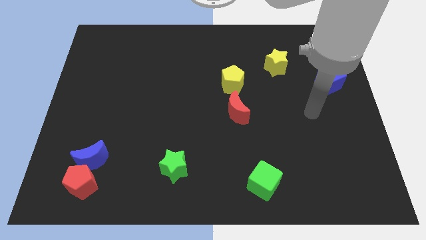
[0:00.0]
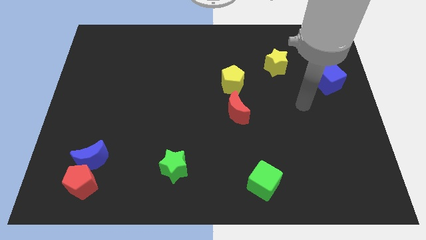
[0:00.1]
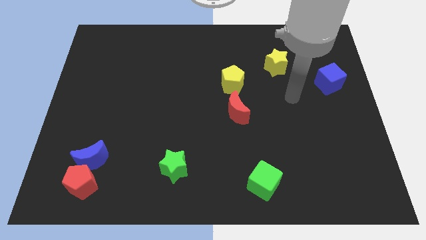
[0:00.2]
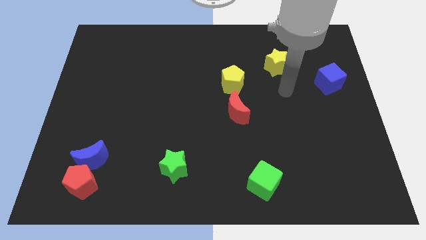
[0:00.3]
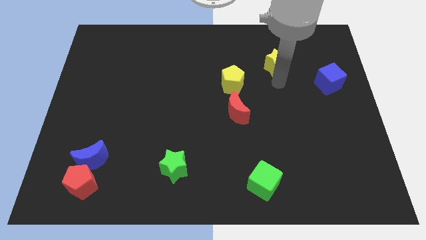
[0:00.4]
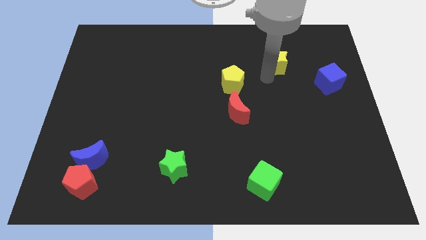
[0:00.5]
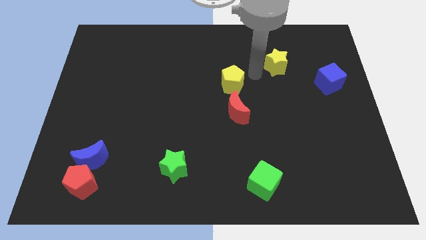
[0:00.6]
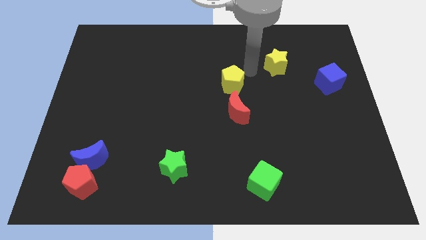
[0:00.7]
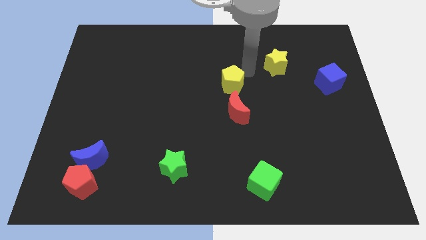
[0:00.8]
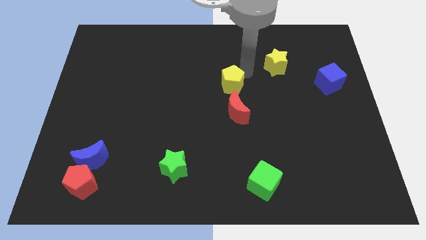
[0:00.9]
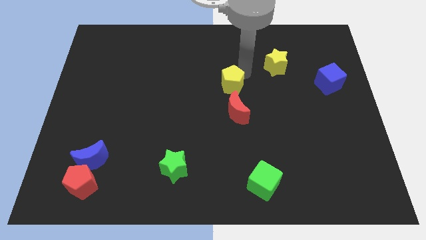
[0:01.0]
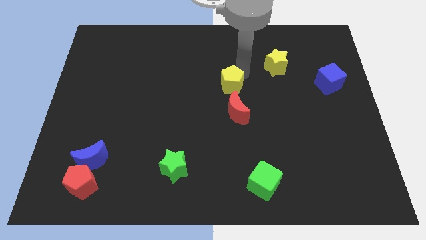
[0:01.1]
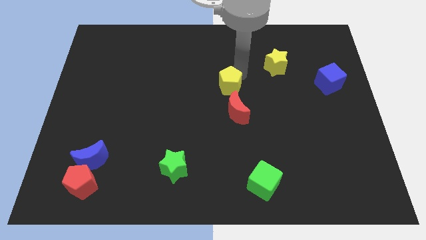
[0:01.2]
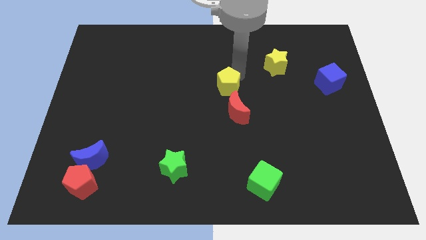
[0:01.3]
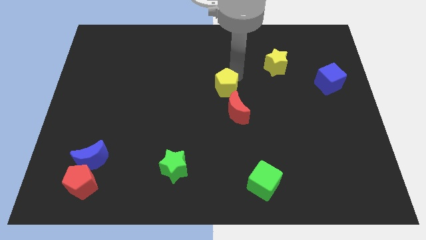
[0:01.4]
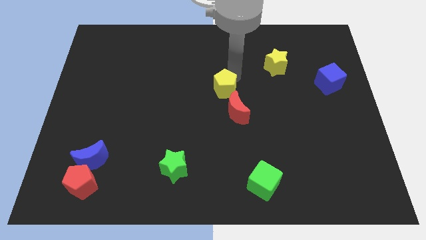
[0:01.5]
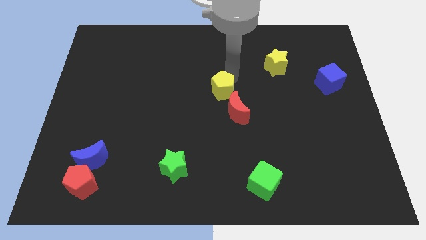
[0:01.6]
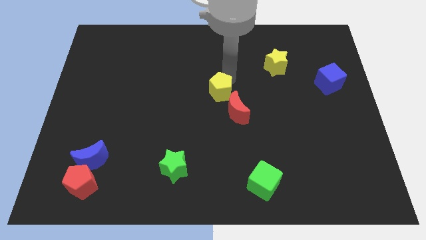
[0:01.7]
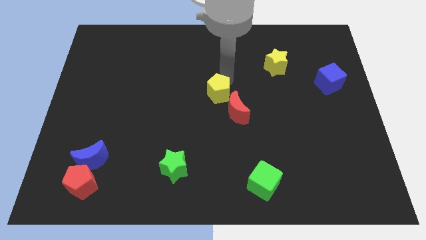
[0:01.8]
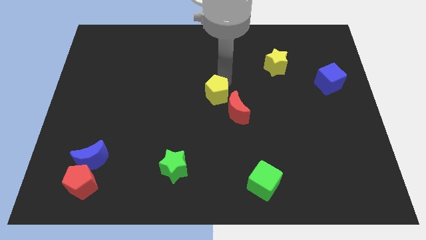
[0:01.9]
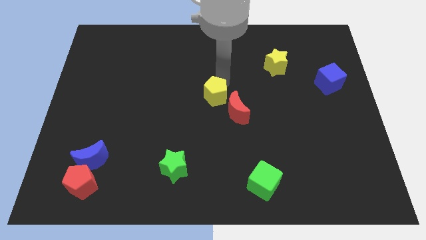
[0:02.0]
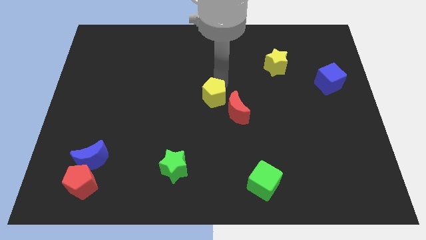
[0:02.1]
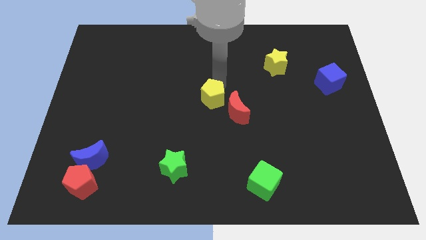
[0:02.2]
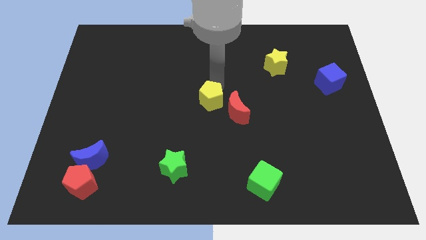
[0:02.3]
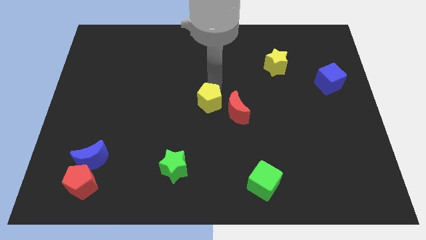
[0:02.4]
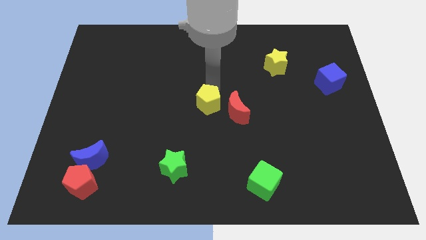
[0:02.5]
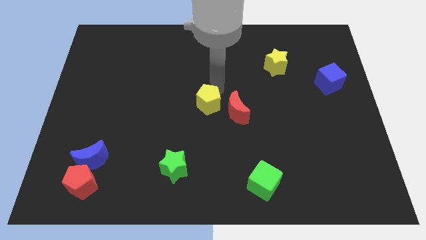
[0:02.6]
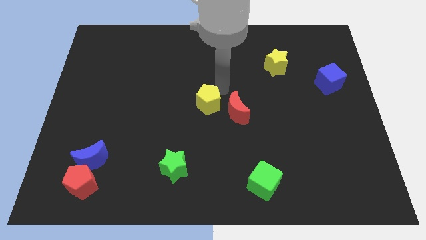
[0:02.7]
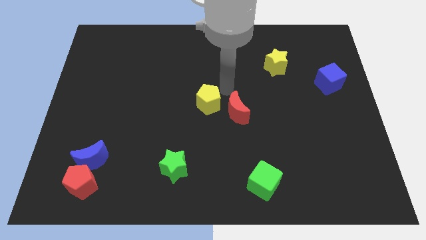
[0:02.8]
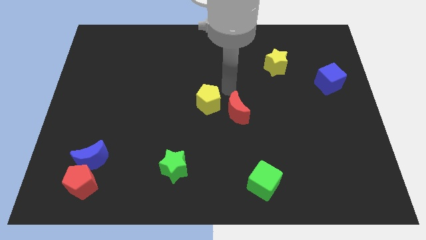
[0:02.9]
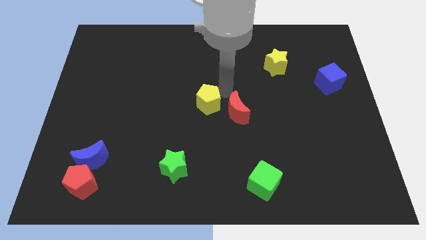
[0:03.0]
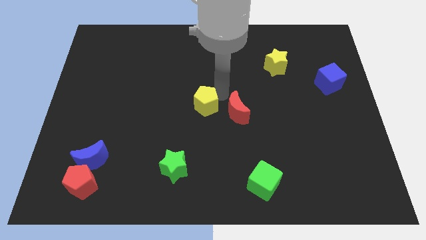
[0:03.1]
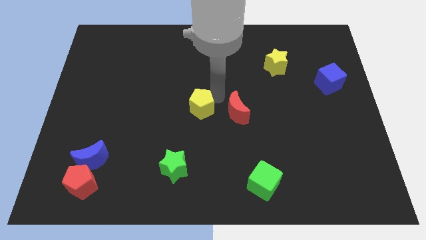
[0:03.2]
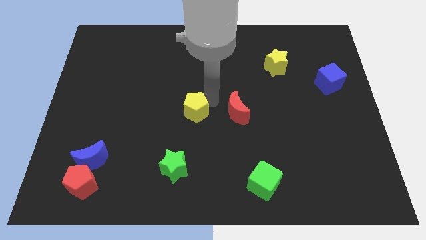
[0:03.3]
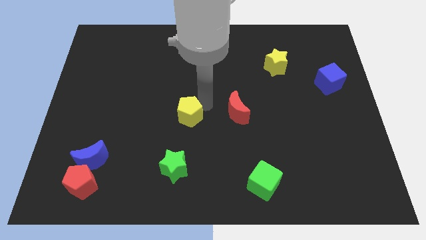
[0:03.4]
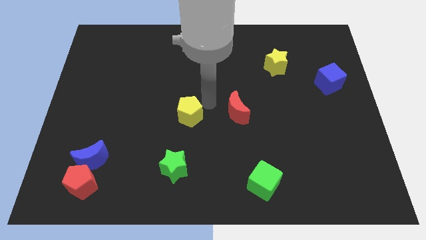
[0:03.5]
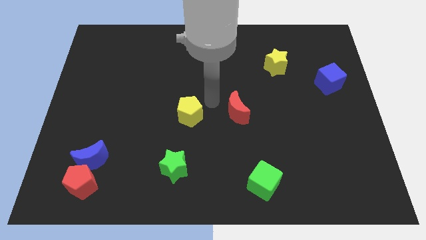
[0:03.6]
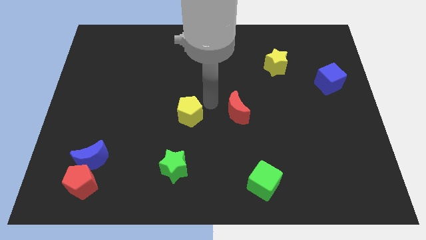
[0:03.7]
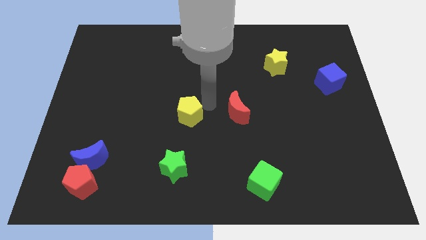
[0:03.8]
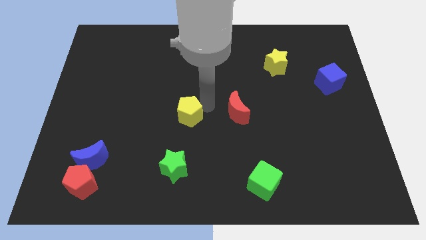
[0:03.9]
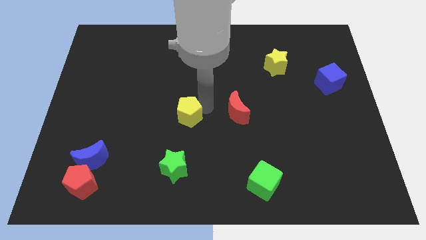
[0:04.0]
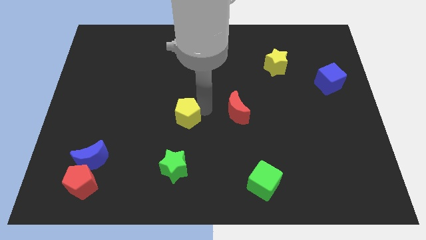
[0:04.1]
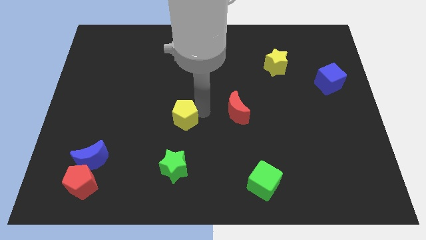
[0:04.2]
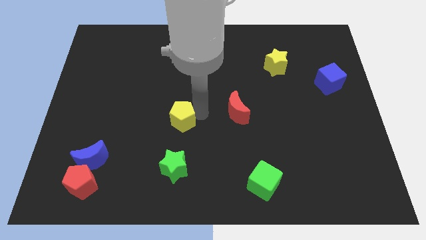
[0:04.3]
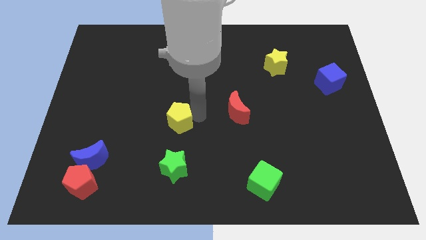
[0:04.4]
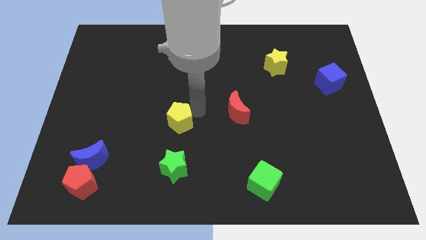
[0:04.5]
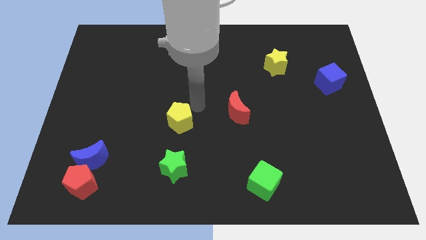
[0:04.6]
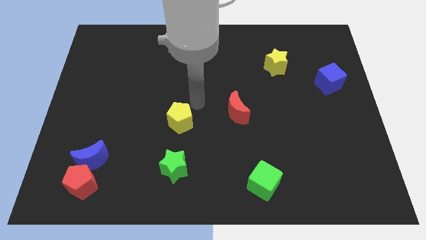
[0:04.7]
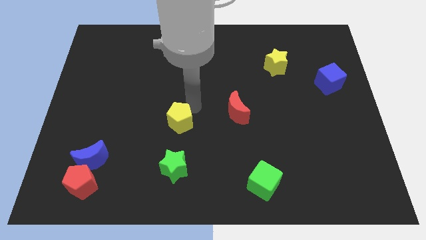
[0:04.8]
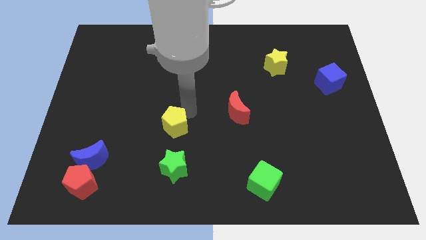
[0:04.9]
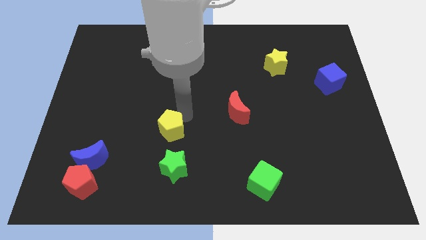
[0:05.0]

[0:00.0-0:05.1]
move the yellow pentagon downwards and then to the left

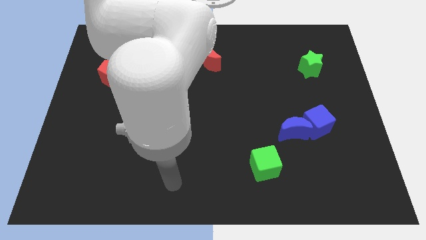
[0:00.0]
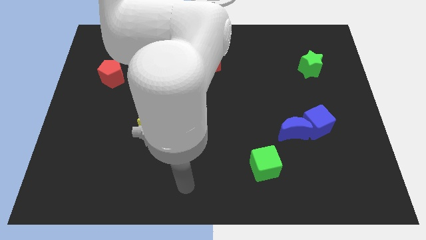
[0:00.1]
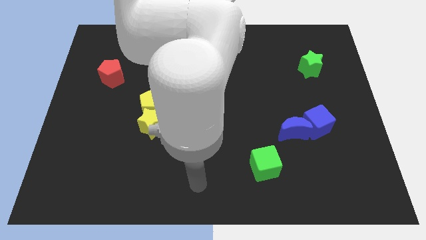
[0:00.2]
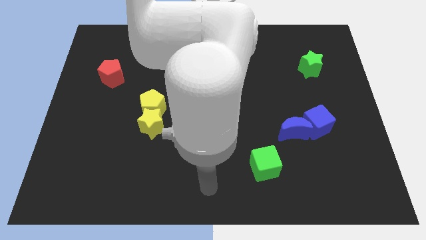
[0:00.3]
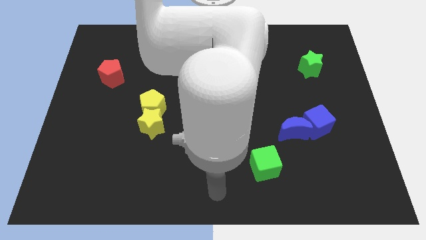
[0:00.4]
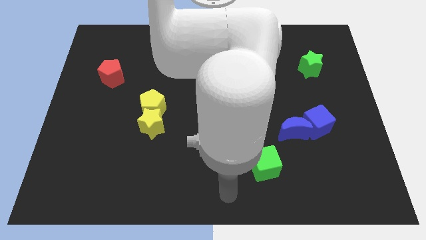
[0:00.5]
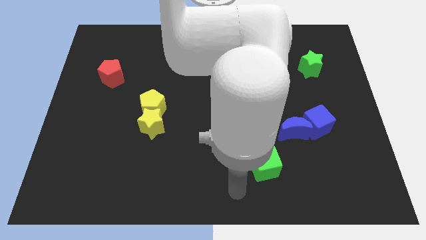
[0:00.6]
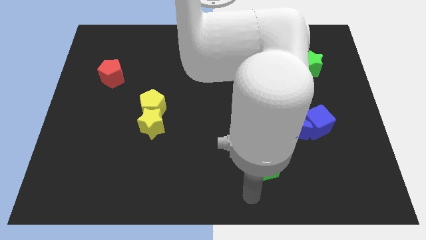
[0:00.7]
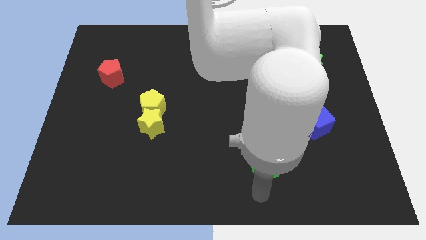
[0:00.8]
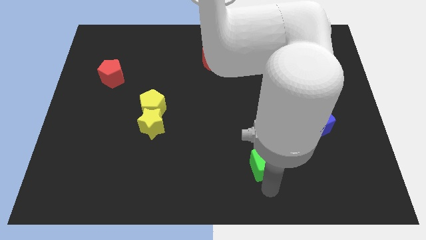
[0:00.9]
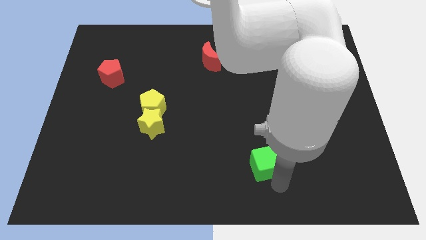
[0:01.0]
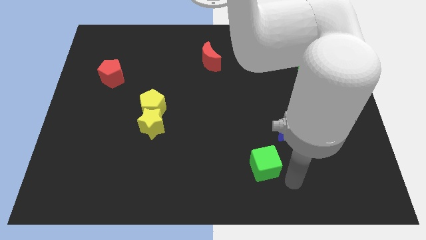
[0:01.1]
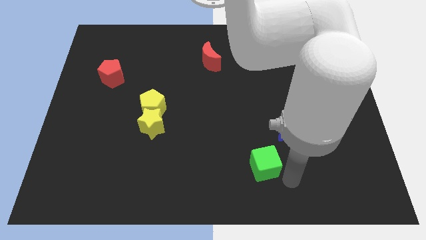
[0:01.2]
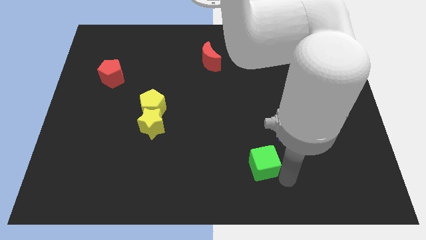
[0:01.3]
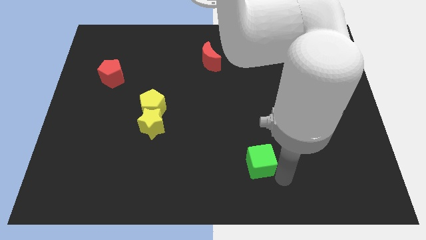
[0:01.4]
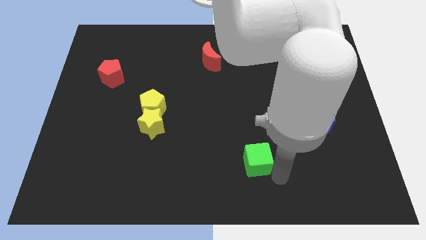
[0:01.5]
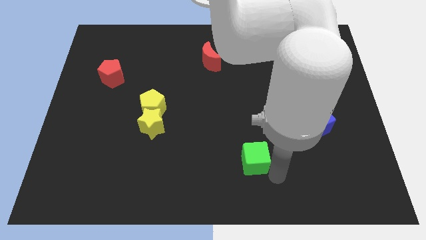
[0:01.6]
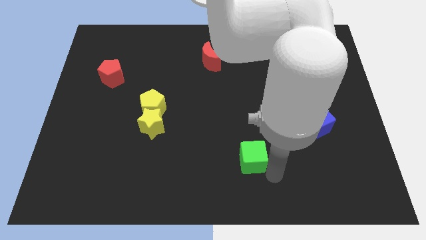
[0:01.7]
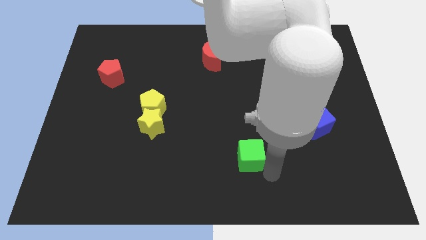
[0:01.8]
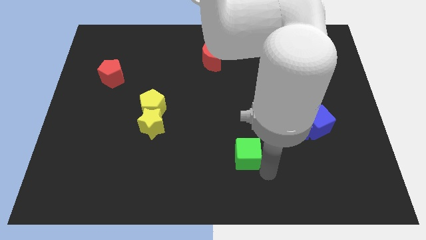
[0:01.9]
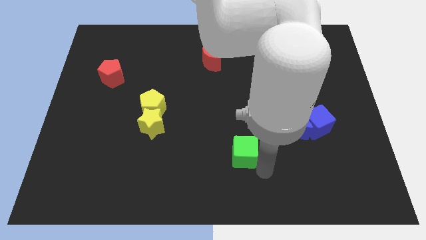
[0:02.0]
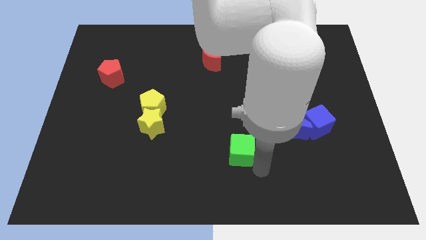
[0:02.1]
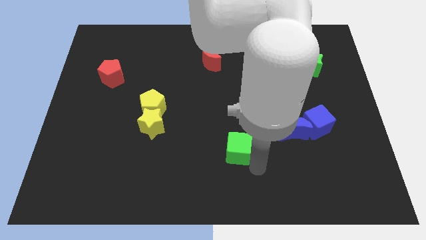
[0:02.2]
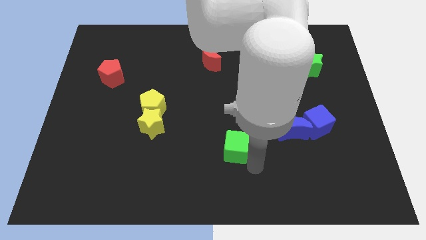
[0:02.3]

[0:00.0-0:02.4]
slightly push the green cube diagonally upwards and to the left

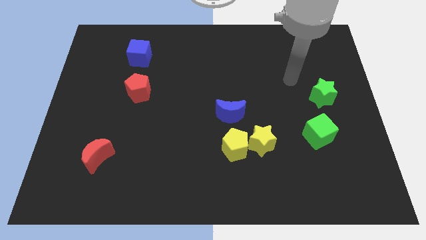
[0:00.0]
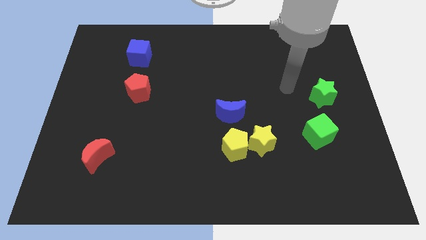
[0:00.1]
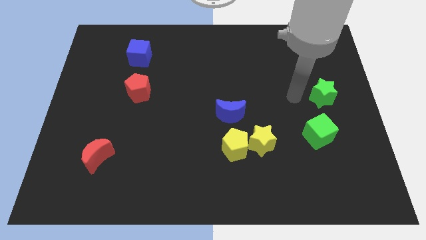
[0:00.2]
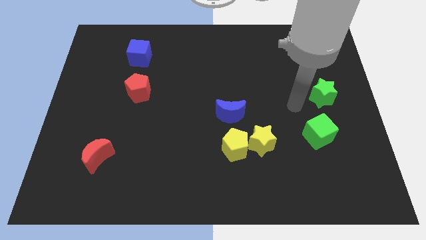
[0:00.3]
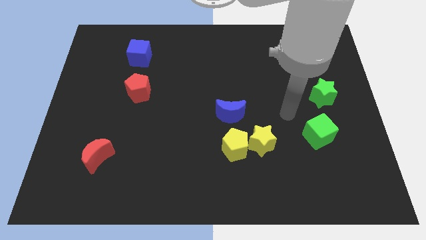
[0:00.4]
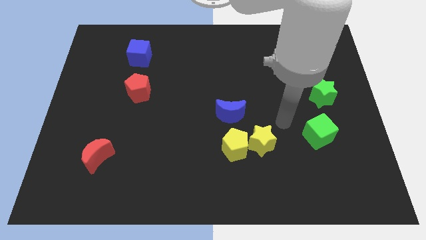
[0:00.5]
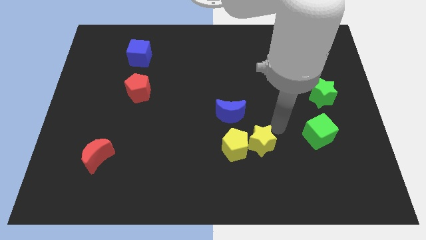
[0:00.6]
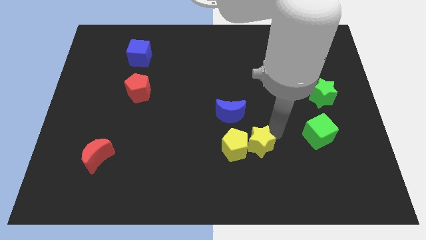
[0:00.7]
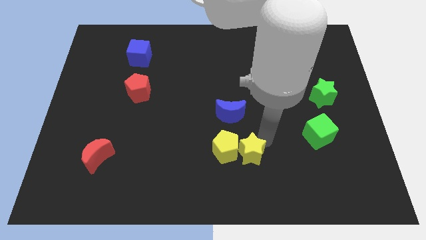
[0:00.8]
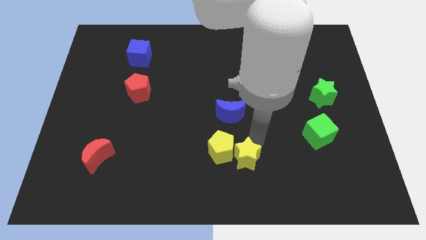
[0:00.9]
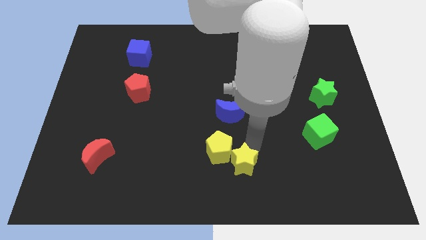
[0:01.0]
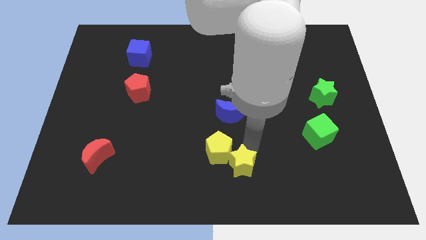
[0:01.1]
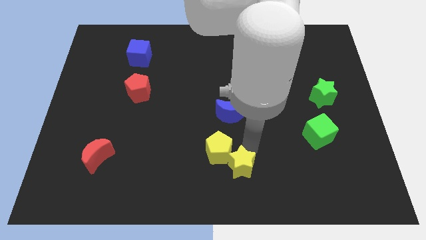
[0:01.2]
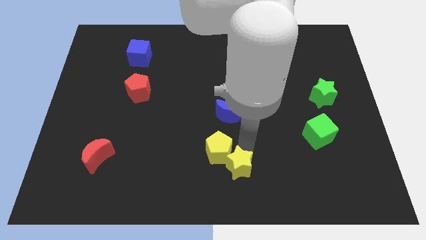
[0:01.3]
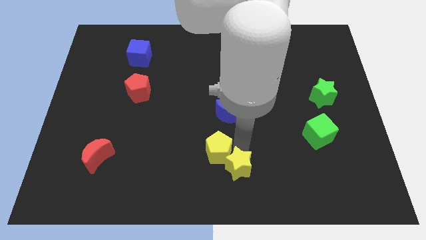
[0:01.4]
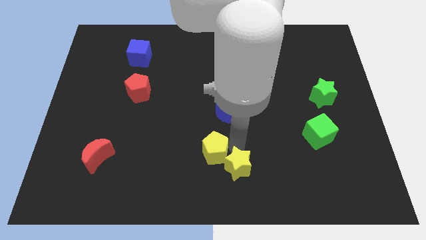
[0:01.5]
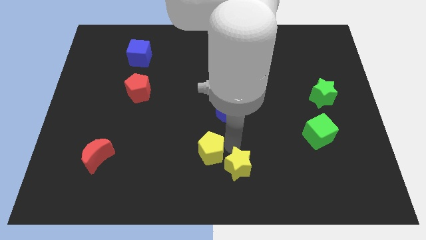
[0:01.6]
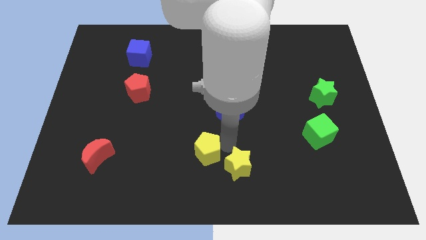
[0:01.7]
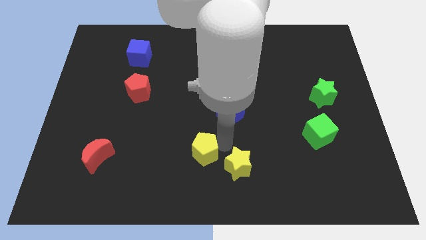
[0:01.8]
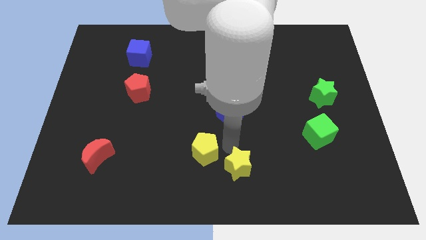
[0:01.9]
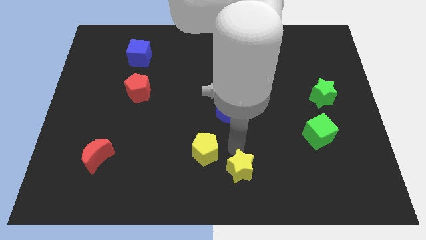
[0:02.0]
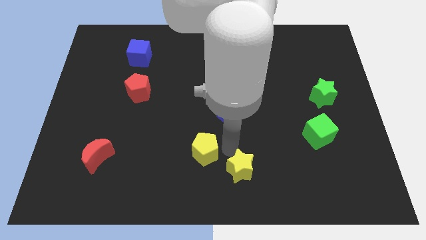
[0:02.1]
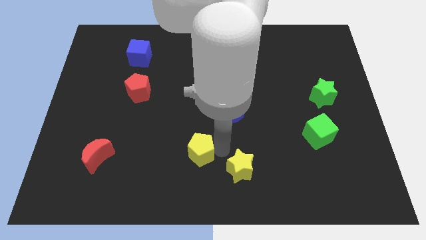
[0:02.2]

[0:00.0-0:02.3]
slightly push the yellow pentagon left
